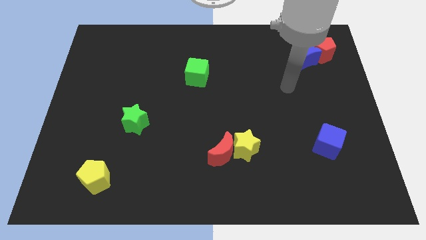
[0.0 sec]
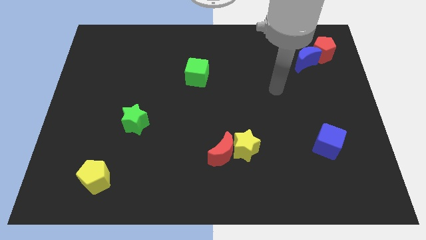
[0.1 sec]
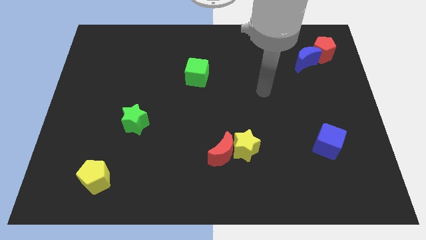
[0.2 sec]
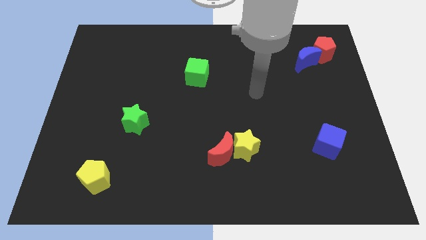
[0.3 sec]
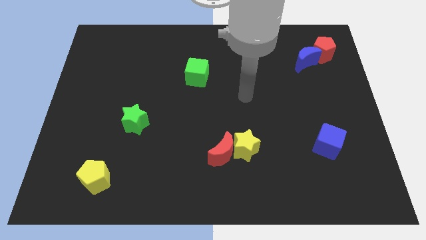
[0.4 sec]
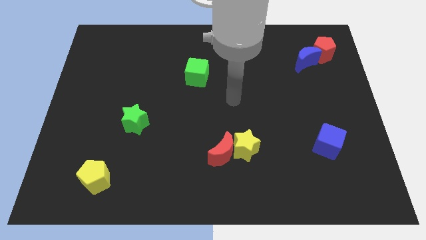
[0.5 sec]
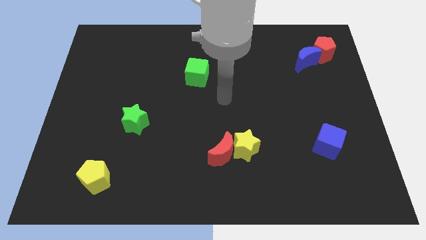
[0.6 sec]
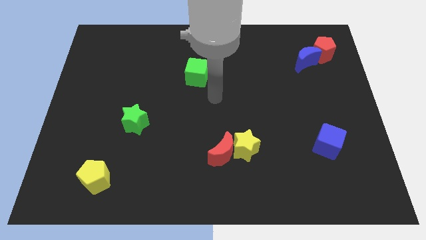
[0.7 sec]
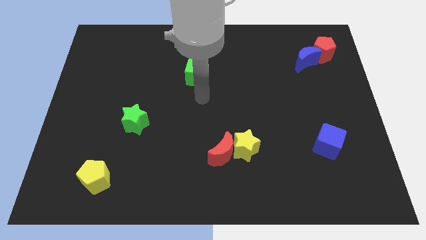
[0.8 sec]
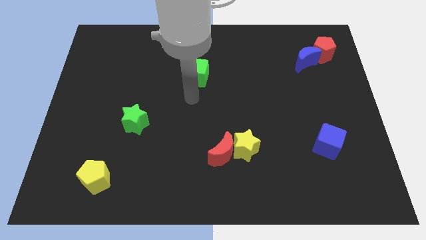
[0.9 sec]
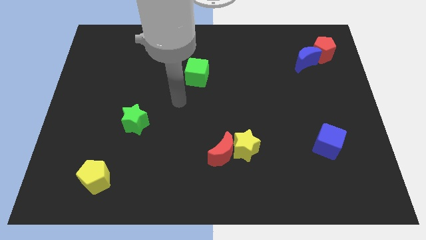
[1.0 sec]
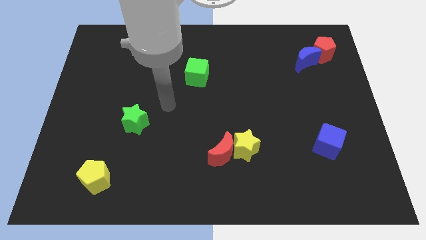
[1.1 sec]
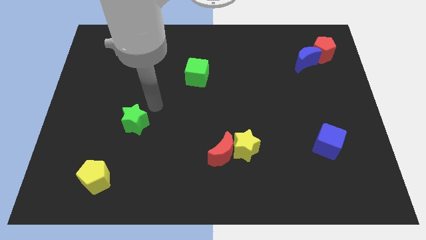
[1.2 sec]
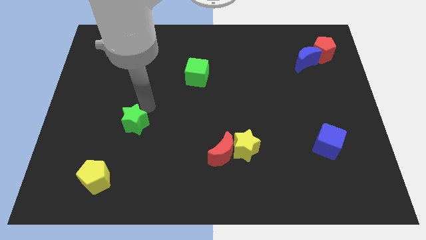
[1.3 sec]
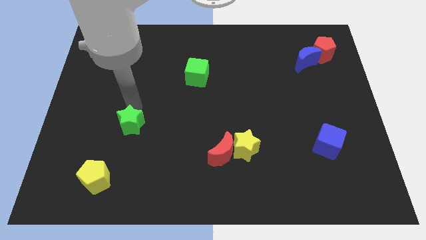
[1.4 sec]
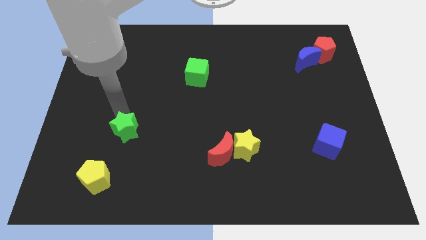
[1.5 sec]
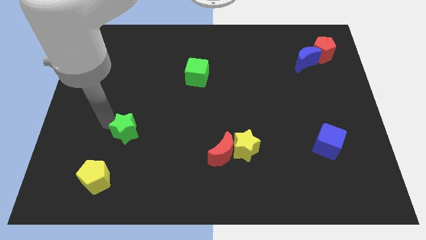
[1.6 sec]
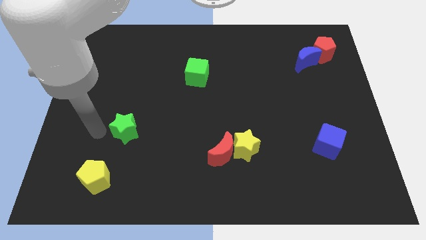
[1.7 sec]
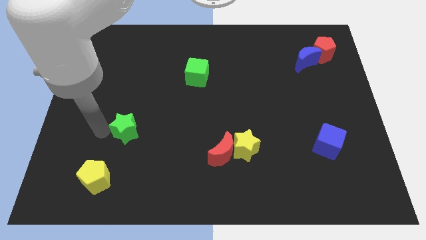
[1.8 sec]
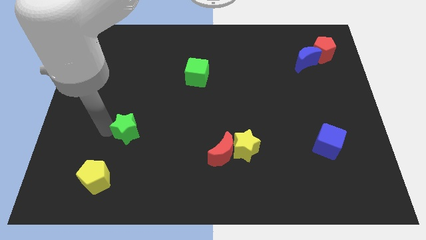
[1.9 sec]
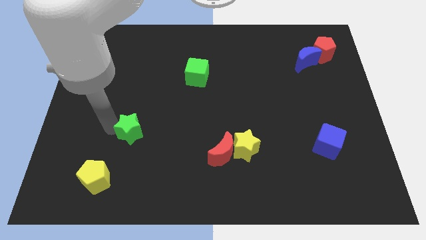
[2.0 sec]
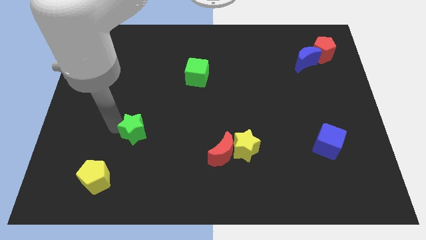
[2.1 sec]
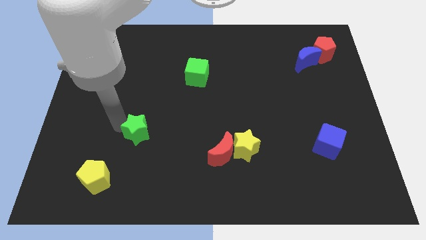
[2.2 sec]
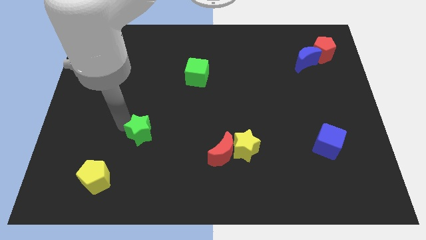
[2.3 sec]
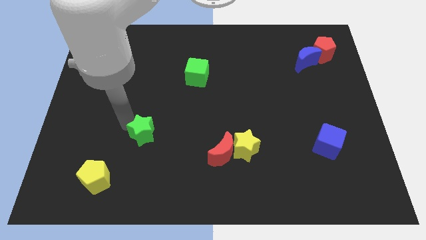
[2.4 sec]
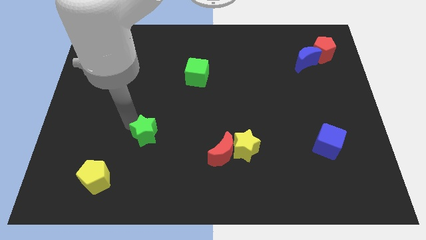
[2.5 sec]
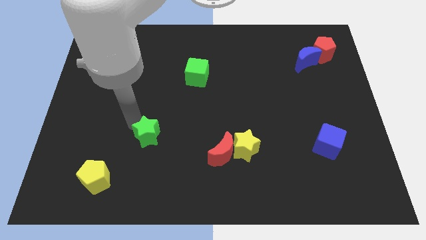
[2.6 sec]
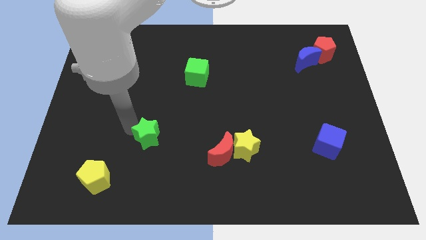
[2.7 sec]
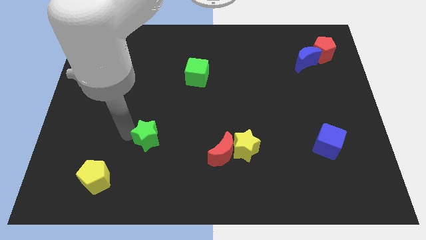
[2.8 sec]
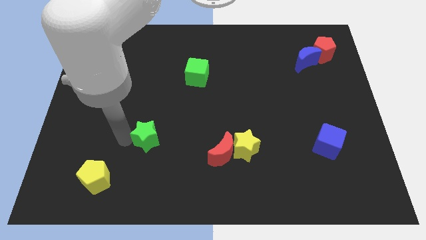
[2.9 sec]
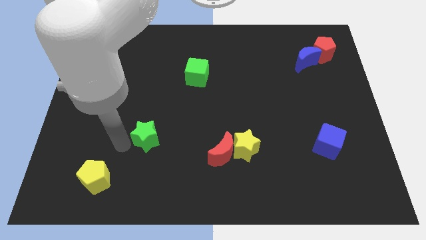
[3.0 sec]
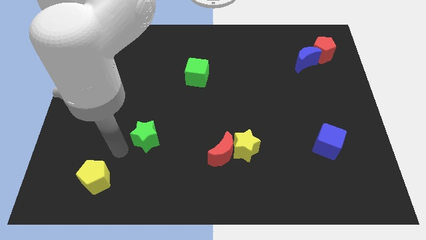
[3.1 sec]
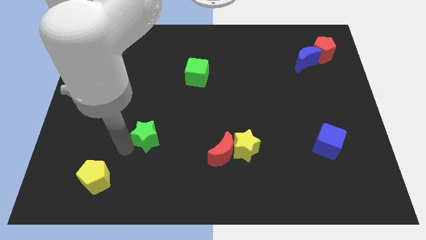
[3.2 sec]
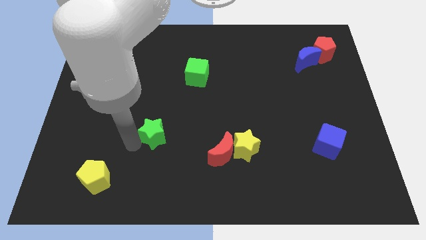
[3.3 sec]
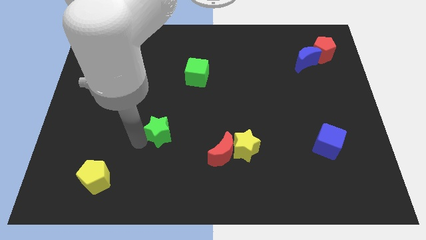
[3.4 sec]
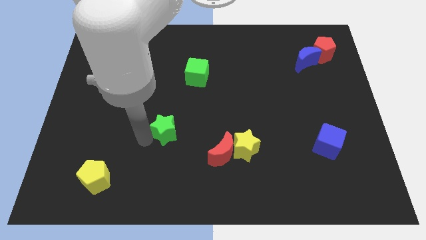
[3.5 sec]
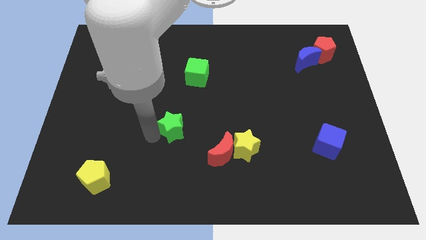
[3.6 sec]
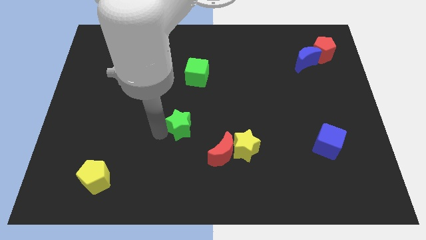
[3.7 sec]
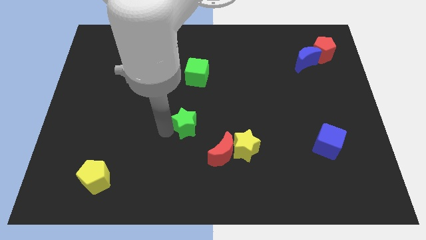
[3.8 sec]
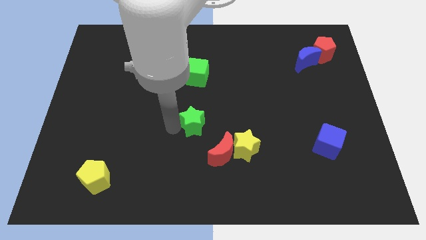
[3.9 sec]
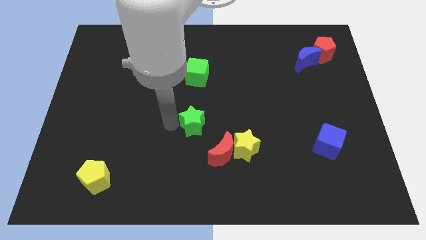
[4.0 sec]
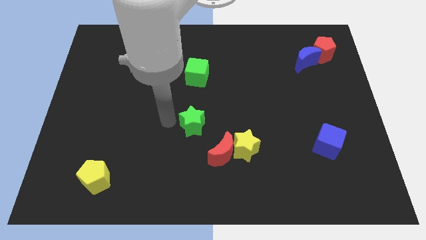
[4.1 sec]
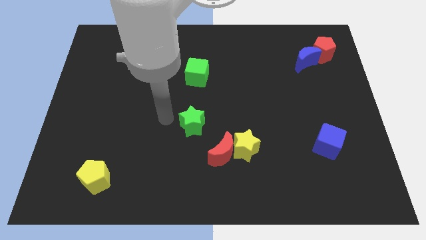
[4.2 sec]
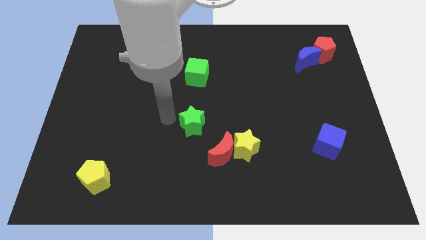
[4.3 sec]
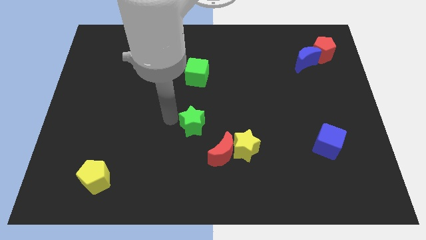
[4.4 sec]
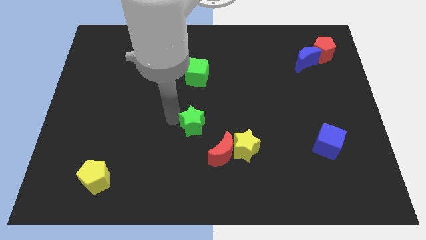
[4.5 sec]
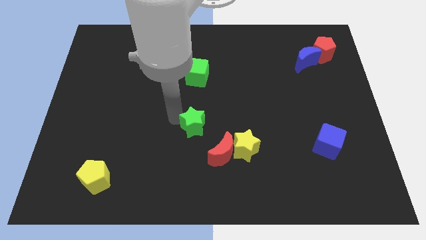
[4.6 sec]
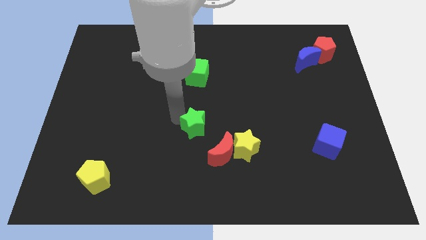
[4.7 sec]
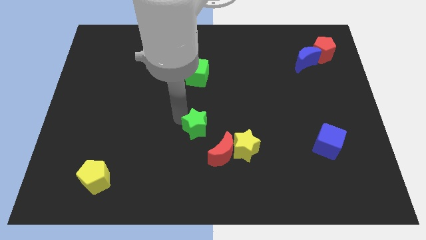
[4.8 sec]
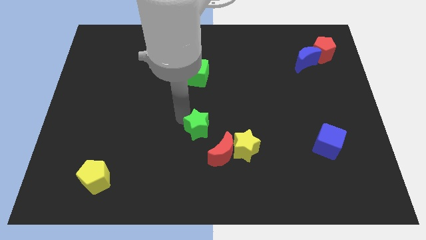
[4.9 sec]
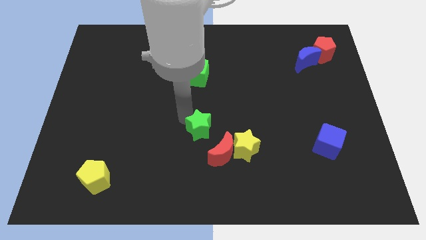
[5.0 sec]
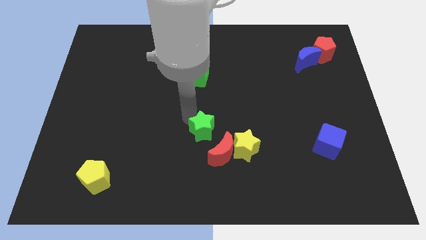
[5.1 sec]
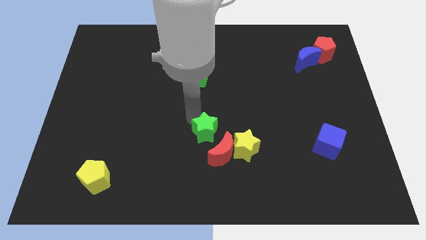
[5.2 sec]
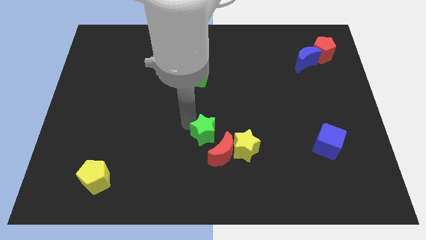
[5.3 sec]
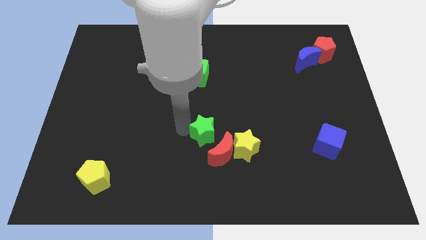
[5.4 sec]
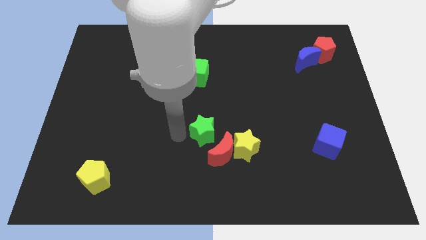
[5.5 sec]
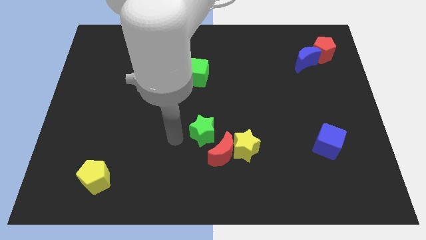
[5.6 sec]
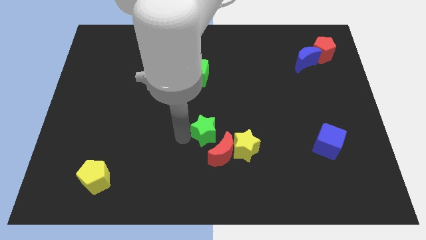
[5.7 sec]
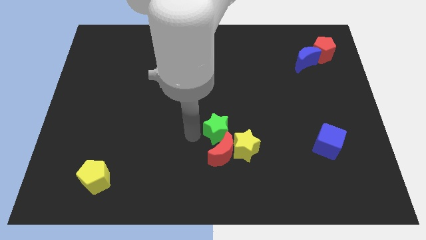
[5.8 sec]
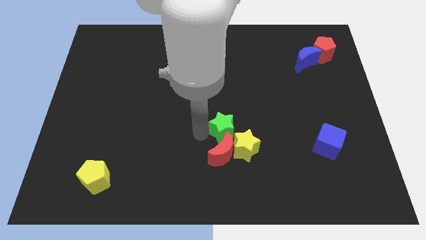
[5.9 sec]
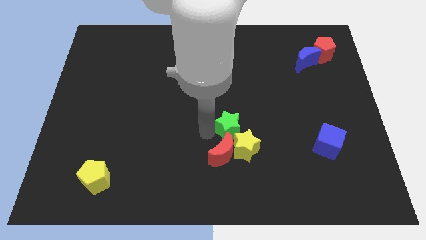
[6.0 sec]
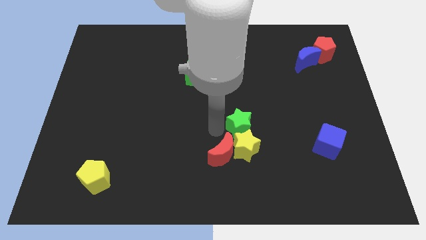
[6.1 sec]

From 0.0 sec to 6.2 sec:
push the green star to the top right side of the yellow star
